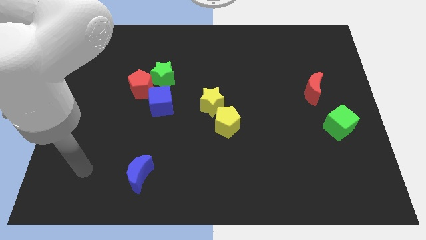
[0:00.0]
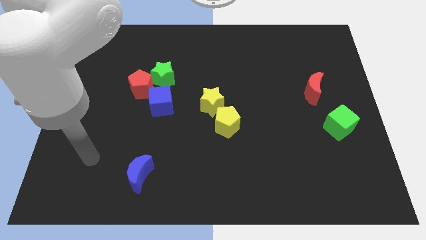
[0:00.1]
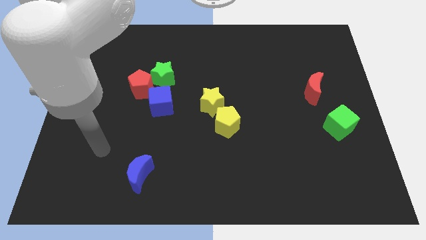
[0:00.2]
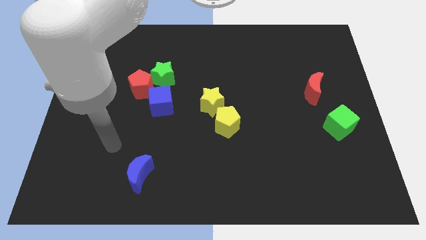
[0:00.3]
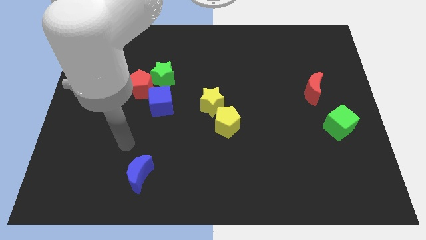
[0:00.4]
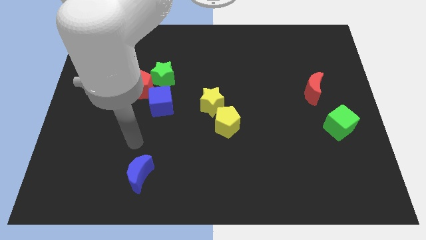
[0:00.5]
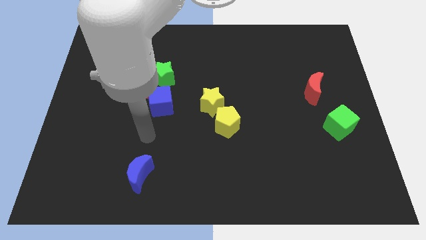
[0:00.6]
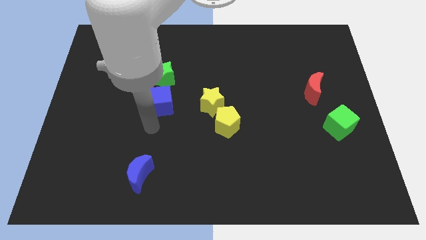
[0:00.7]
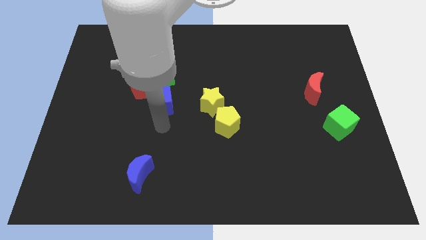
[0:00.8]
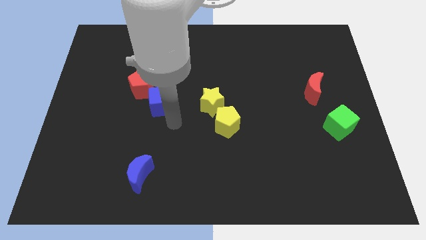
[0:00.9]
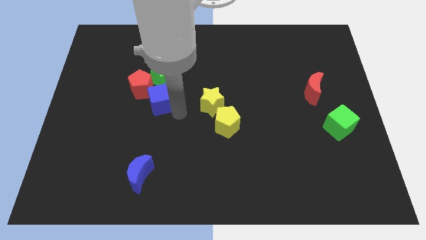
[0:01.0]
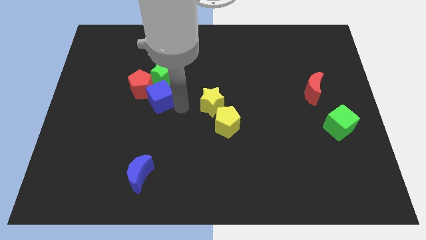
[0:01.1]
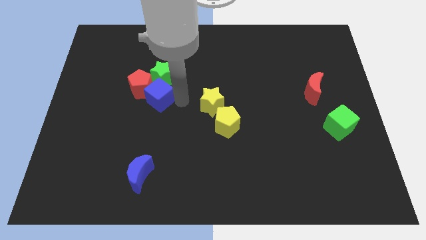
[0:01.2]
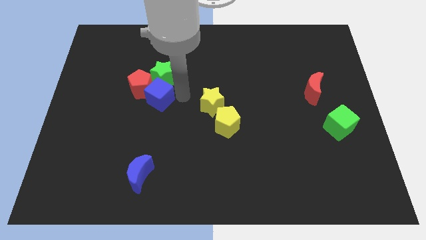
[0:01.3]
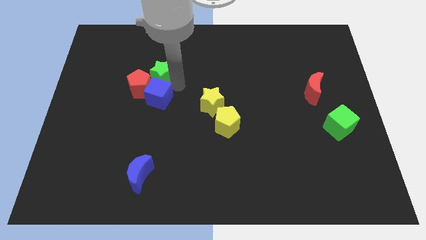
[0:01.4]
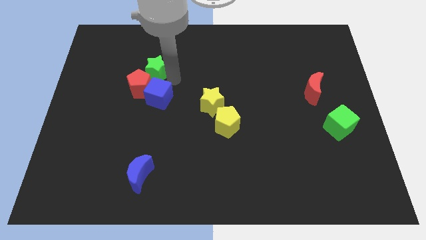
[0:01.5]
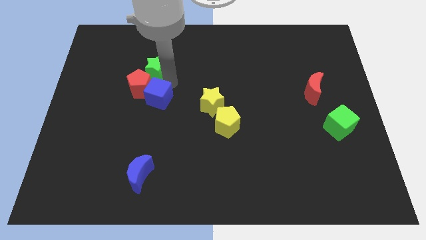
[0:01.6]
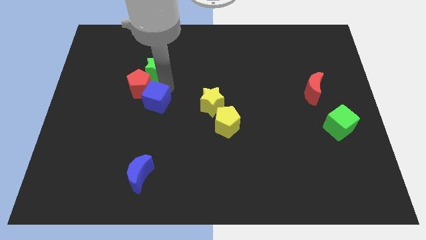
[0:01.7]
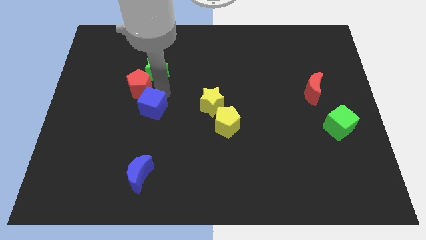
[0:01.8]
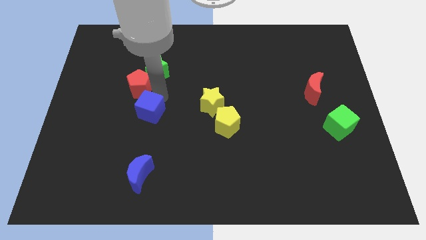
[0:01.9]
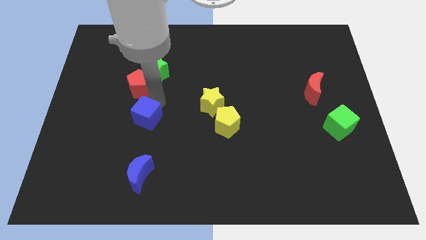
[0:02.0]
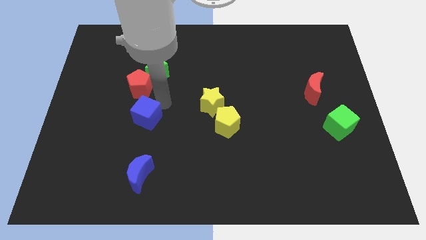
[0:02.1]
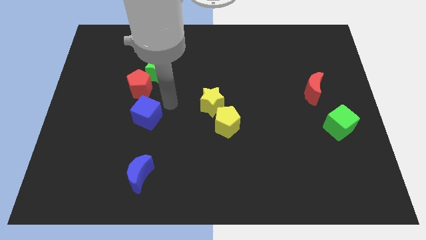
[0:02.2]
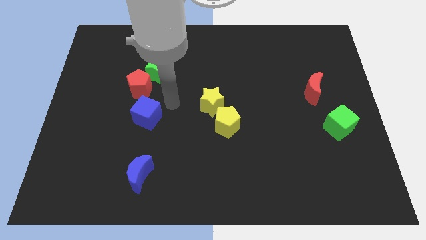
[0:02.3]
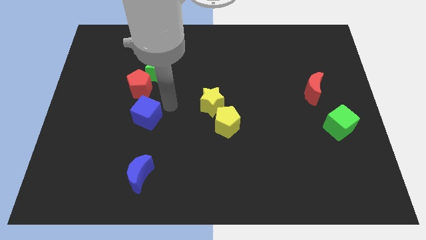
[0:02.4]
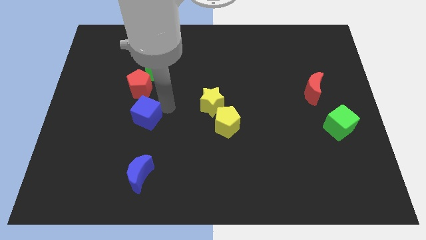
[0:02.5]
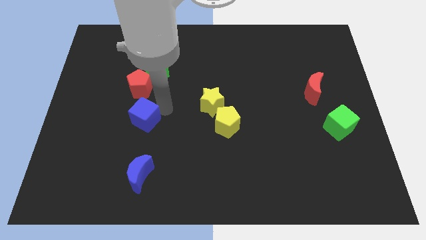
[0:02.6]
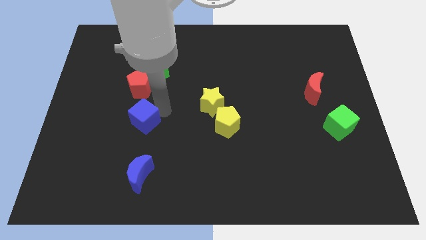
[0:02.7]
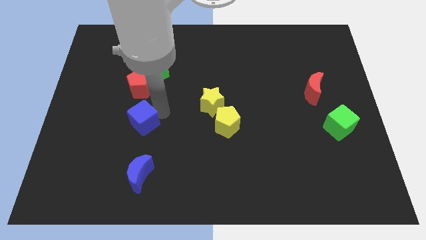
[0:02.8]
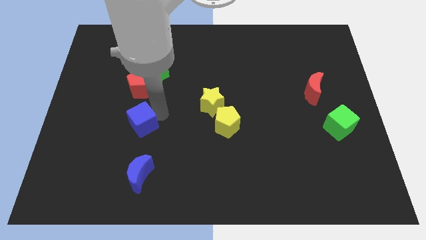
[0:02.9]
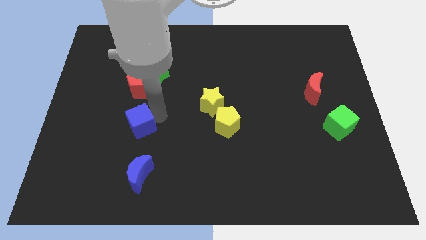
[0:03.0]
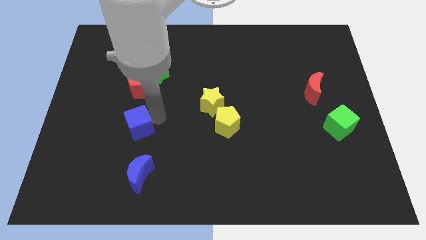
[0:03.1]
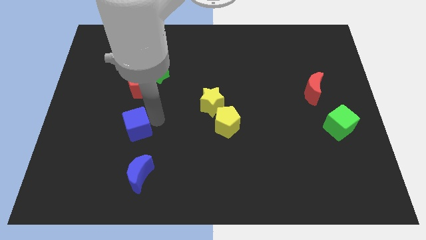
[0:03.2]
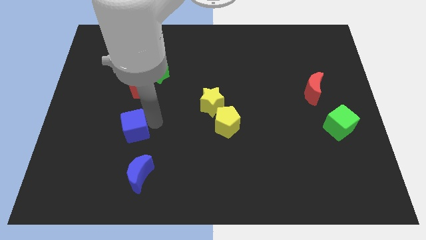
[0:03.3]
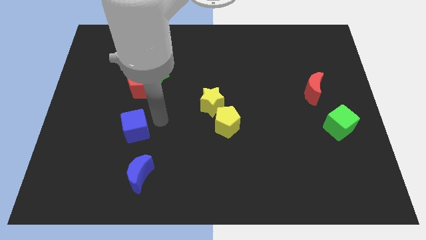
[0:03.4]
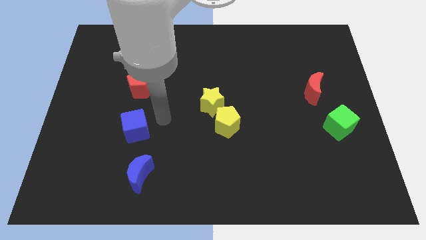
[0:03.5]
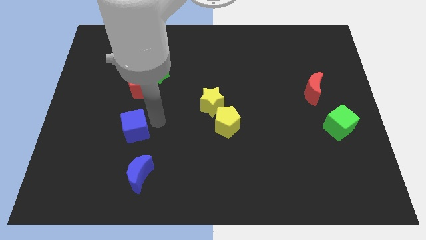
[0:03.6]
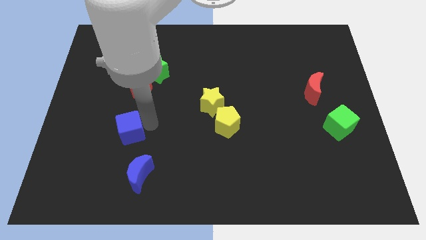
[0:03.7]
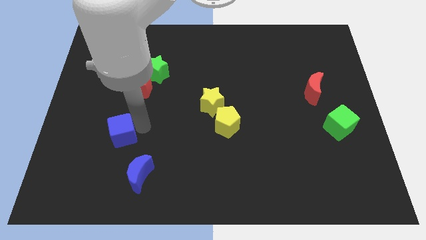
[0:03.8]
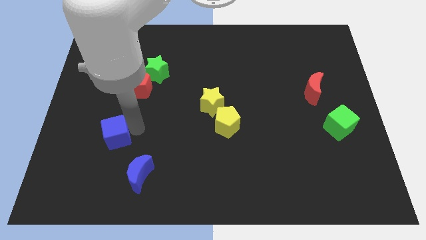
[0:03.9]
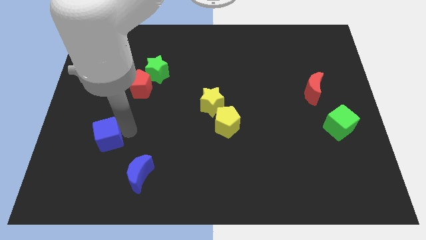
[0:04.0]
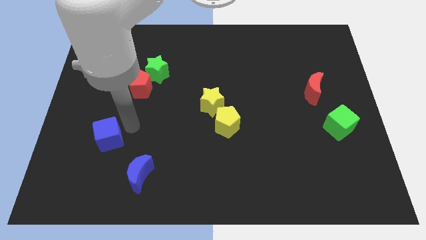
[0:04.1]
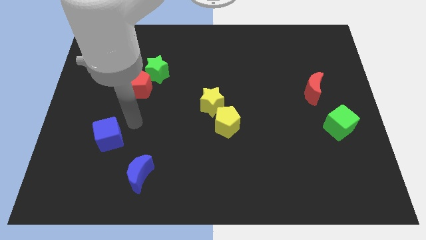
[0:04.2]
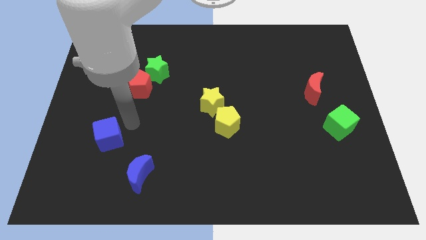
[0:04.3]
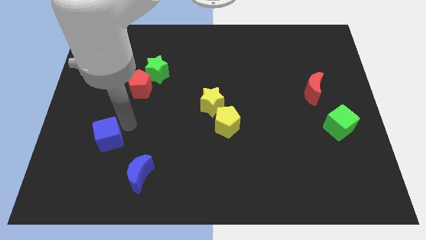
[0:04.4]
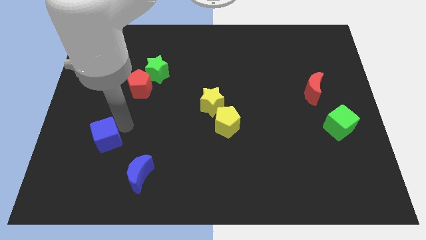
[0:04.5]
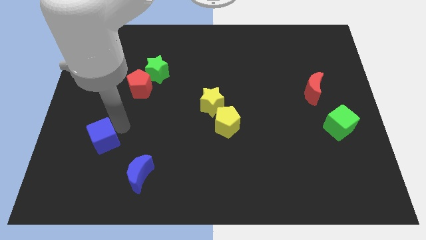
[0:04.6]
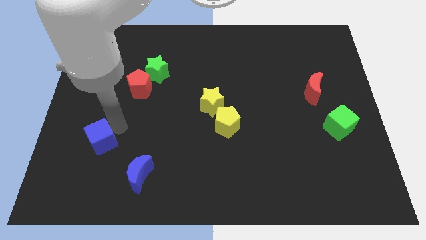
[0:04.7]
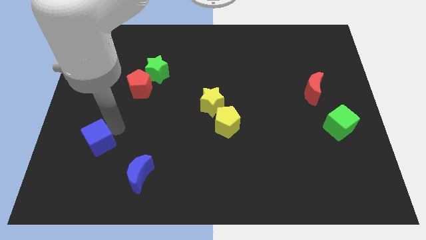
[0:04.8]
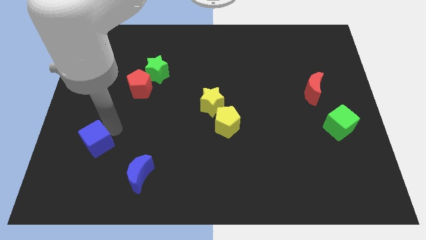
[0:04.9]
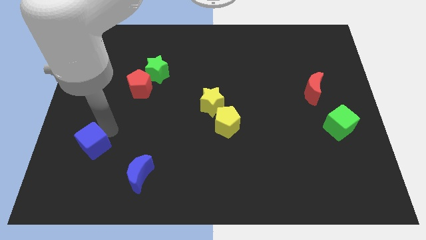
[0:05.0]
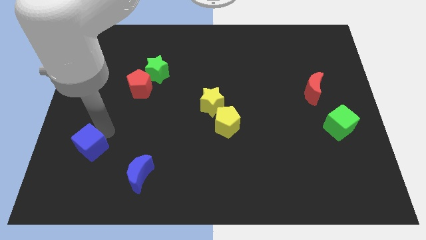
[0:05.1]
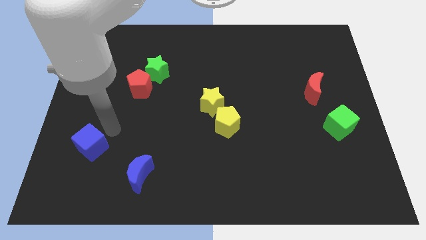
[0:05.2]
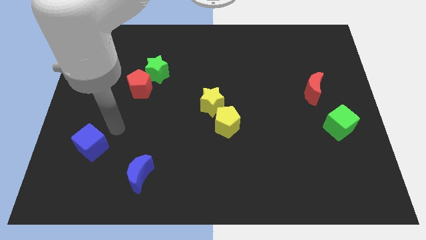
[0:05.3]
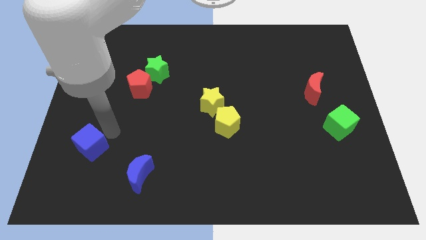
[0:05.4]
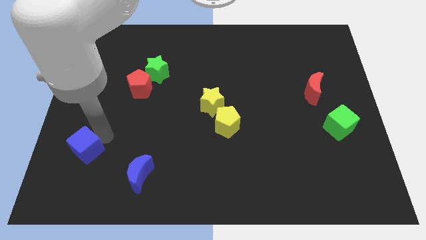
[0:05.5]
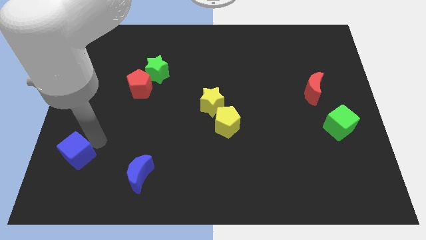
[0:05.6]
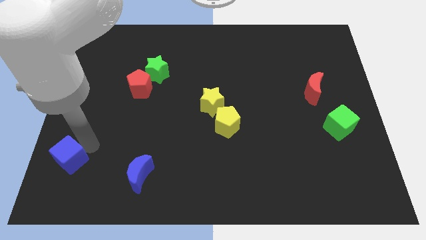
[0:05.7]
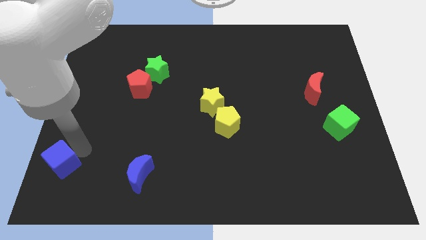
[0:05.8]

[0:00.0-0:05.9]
slide the blue cube to the lower left corner
